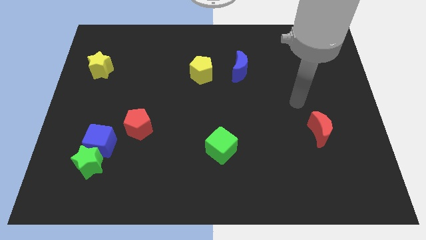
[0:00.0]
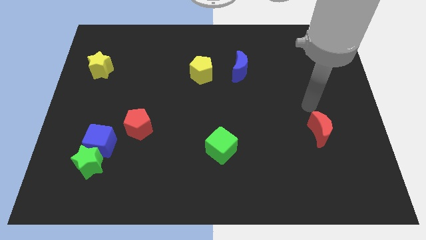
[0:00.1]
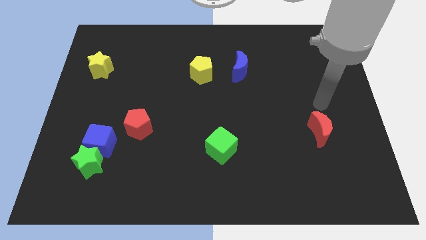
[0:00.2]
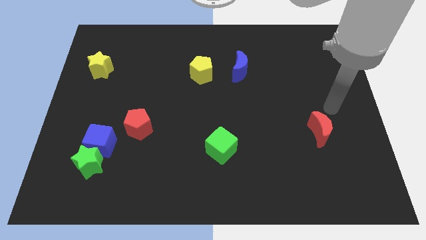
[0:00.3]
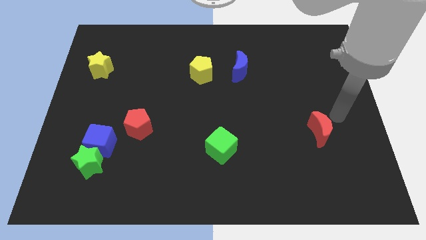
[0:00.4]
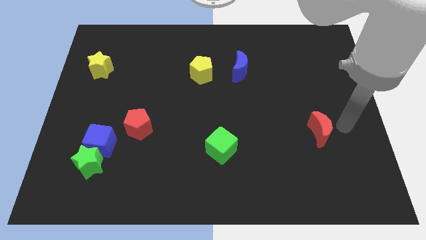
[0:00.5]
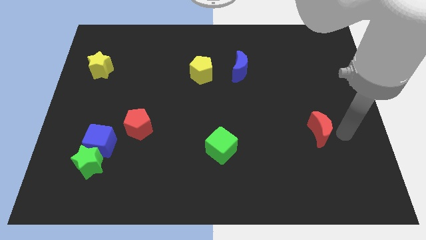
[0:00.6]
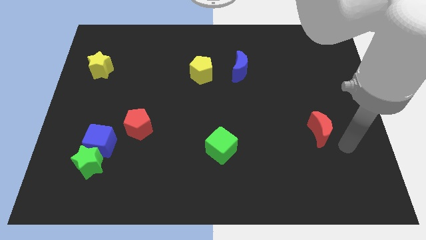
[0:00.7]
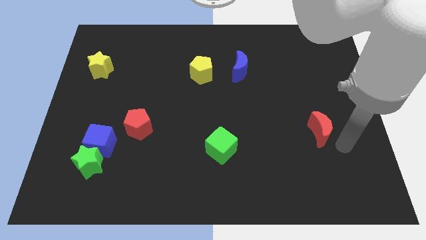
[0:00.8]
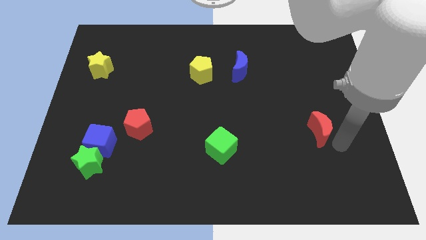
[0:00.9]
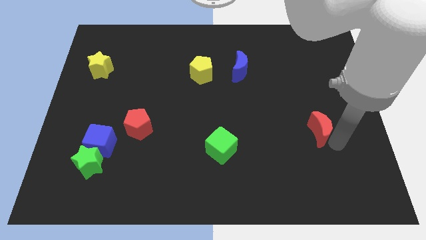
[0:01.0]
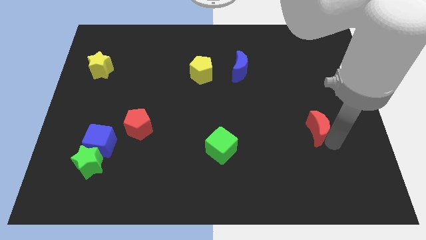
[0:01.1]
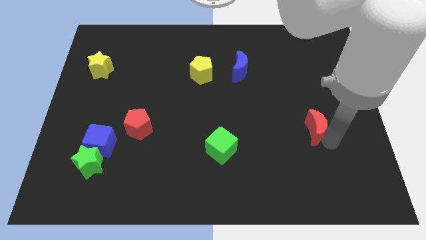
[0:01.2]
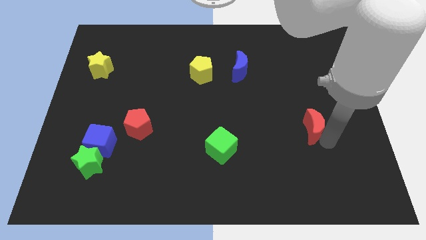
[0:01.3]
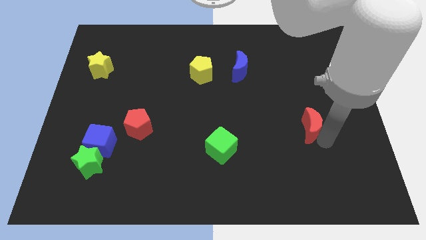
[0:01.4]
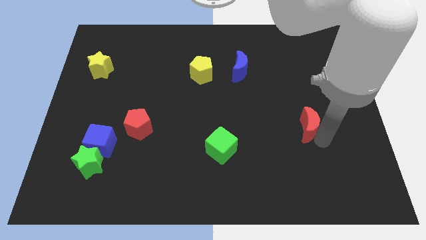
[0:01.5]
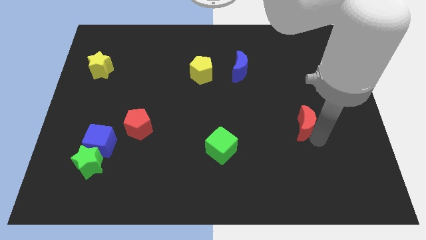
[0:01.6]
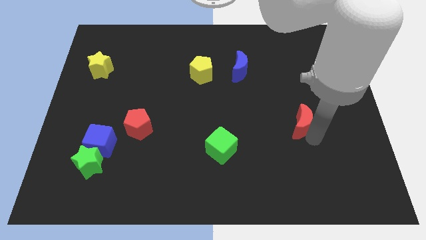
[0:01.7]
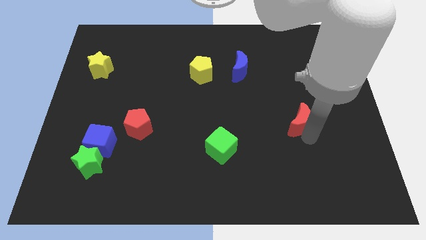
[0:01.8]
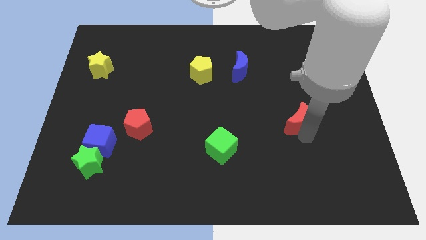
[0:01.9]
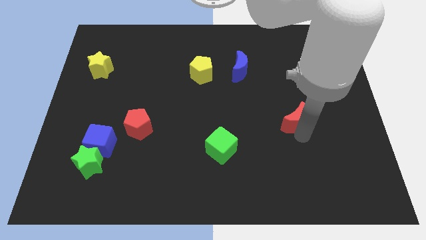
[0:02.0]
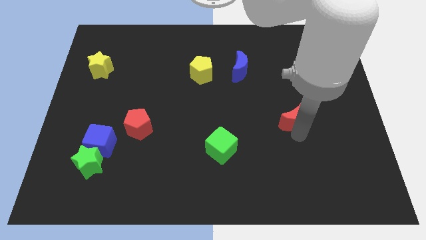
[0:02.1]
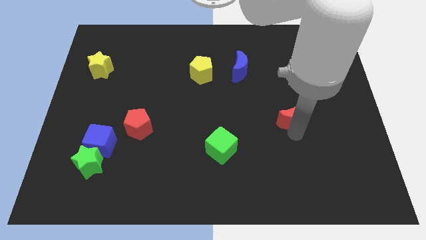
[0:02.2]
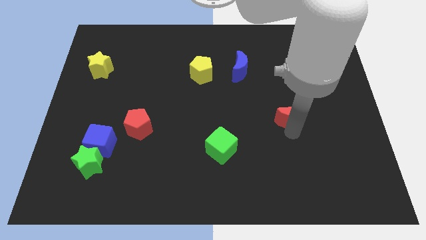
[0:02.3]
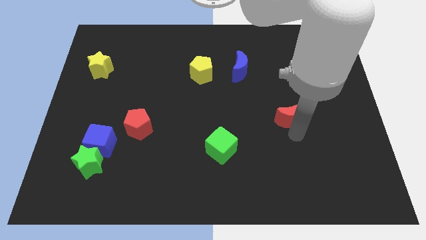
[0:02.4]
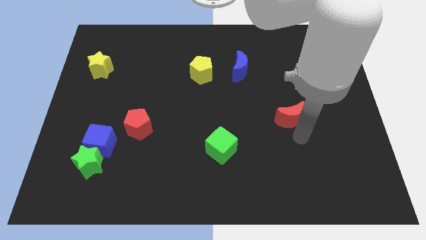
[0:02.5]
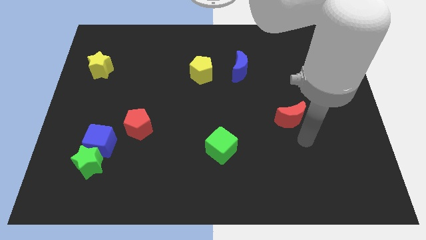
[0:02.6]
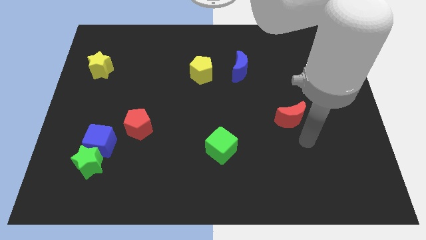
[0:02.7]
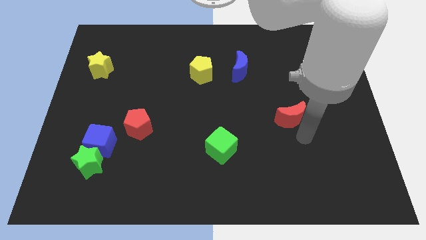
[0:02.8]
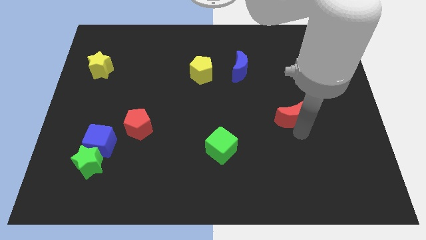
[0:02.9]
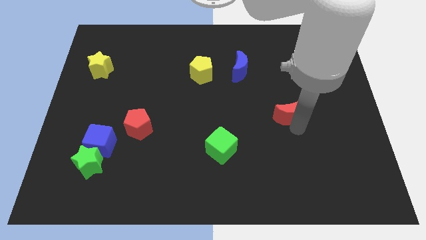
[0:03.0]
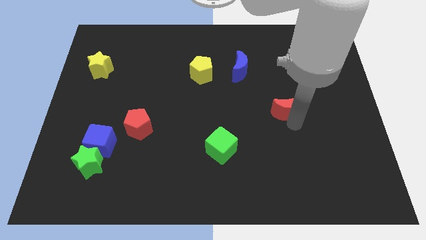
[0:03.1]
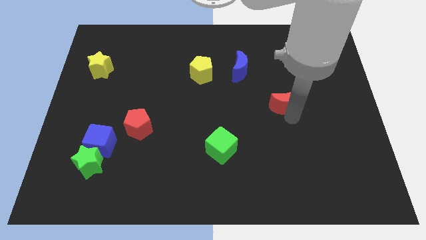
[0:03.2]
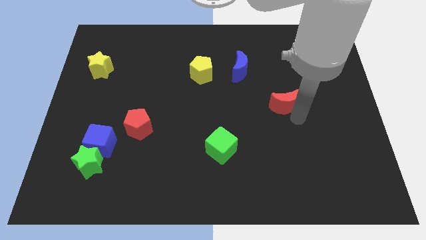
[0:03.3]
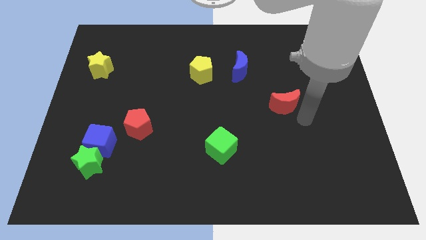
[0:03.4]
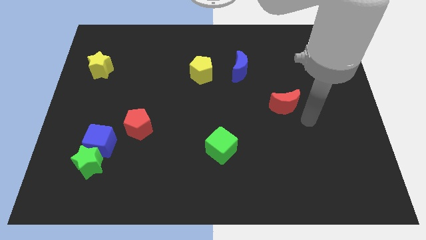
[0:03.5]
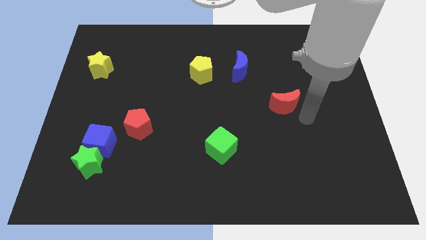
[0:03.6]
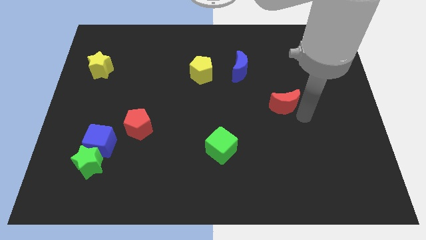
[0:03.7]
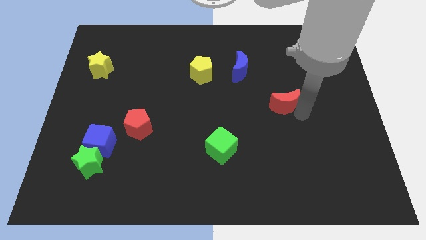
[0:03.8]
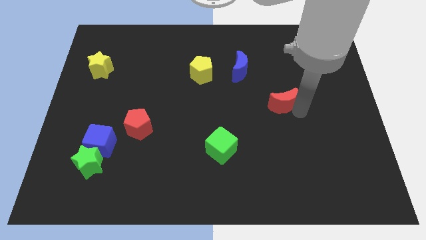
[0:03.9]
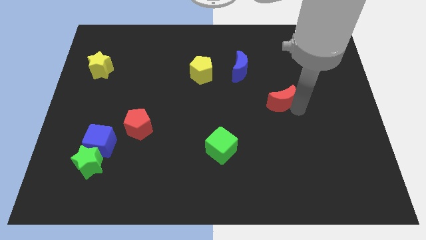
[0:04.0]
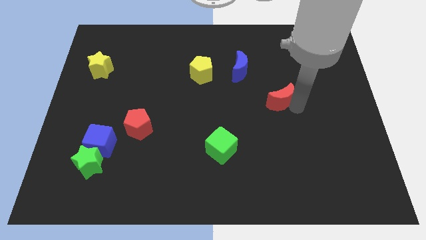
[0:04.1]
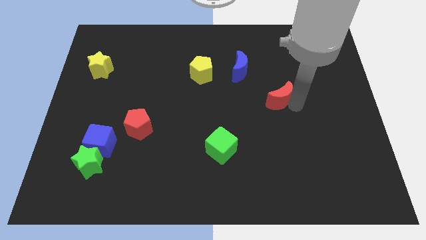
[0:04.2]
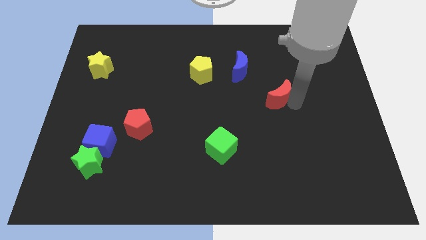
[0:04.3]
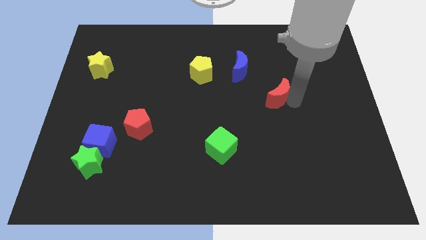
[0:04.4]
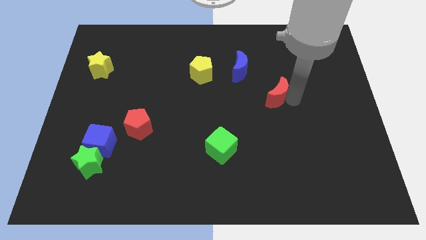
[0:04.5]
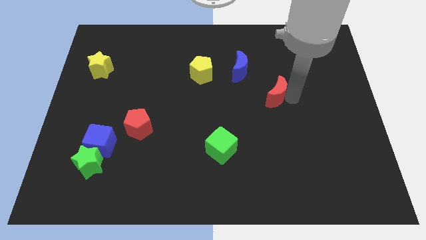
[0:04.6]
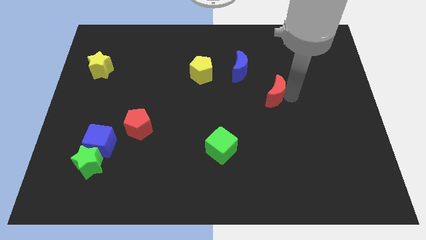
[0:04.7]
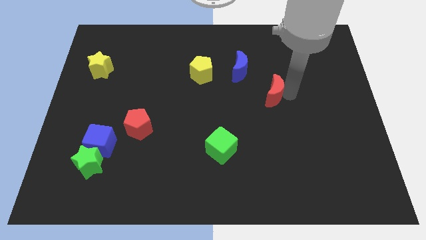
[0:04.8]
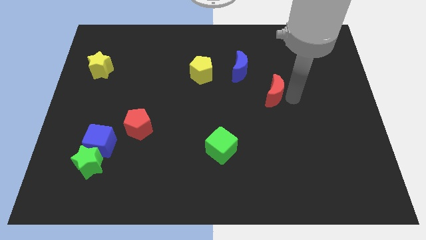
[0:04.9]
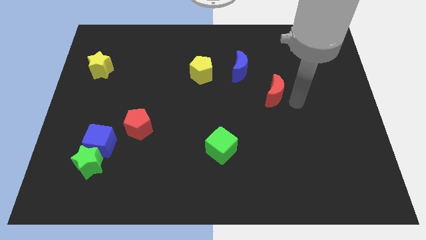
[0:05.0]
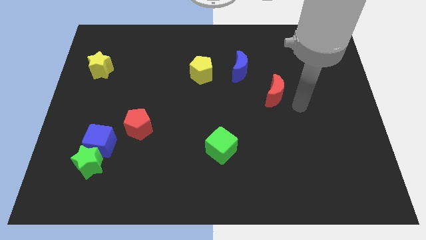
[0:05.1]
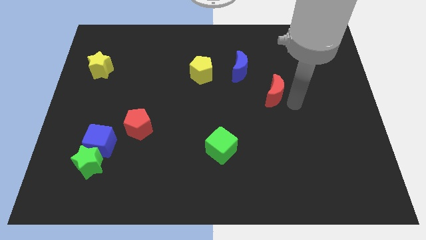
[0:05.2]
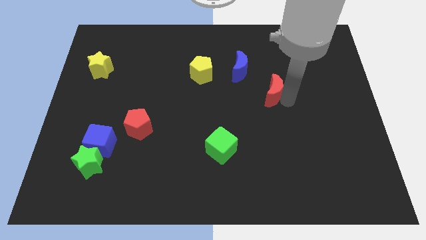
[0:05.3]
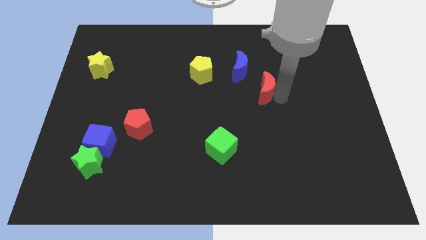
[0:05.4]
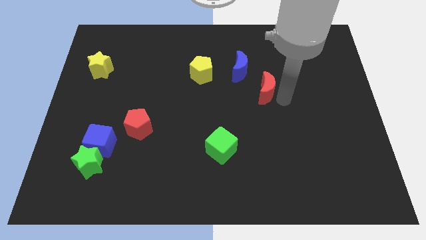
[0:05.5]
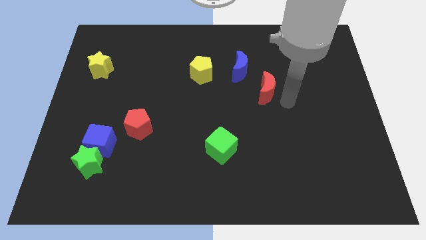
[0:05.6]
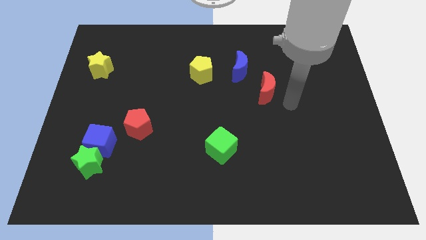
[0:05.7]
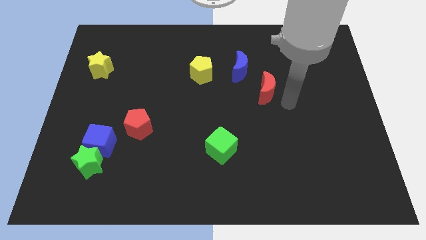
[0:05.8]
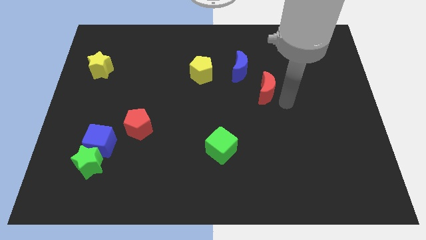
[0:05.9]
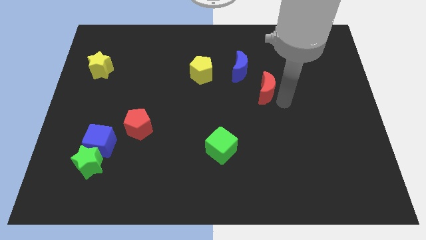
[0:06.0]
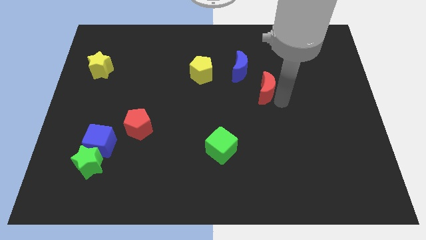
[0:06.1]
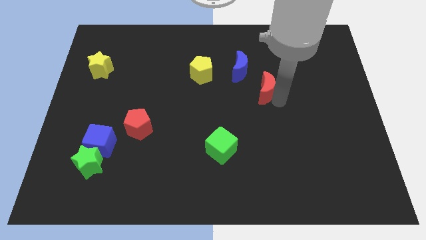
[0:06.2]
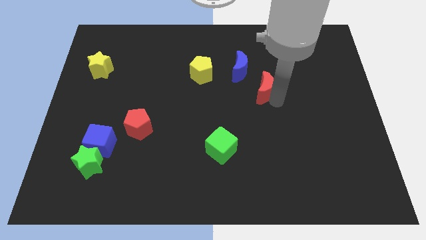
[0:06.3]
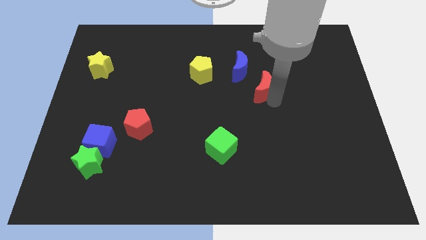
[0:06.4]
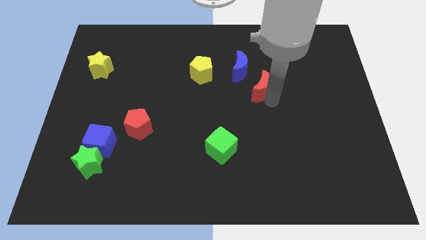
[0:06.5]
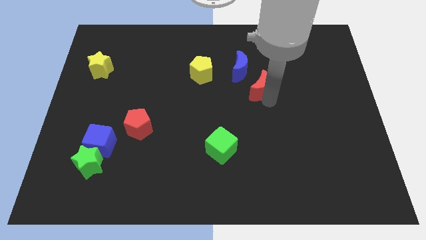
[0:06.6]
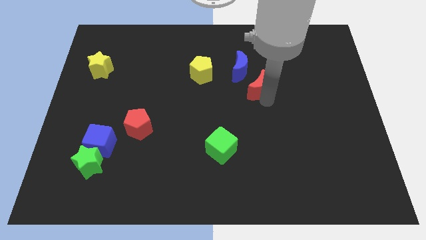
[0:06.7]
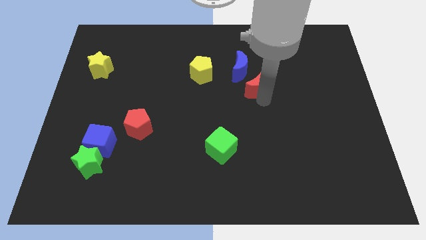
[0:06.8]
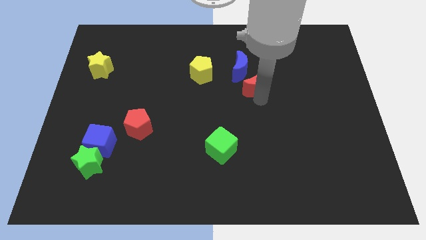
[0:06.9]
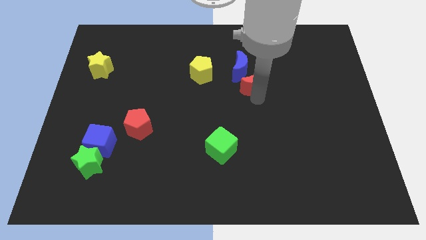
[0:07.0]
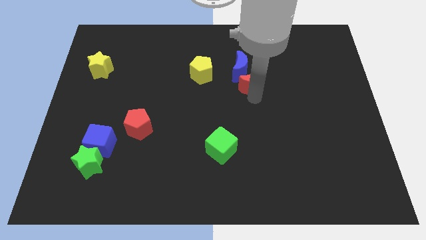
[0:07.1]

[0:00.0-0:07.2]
push the red moon towards the blue moon
